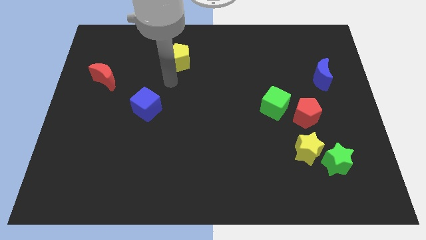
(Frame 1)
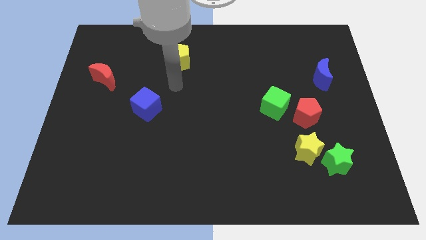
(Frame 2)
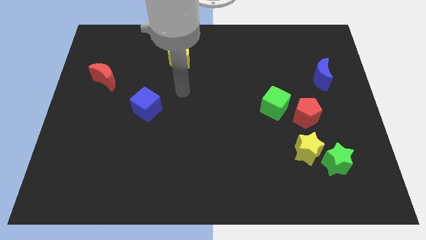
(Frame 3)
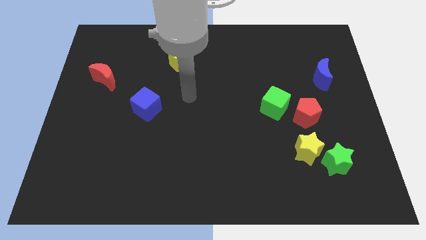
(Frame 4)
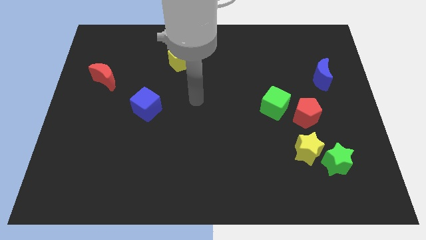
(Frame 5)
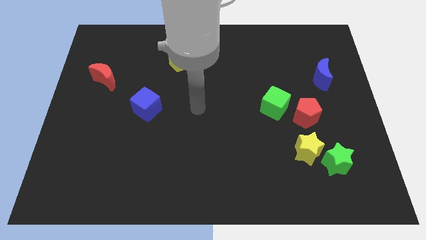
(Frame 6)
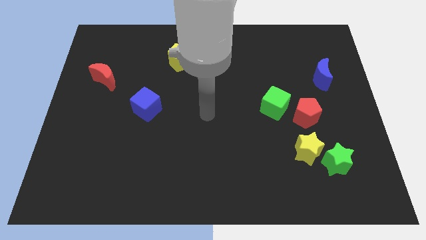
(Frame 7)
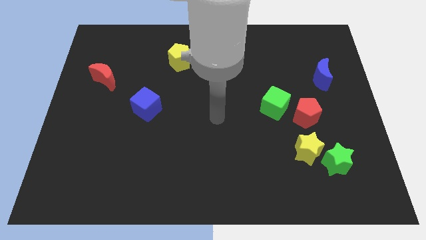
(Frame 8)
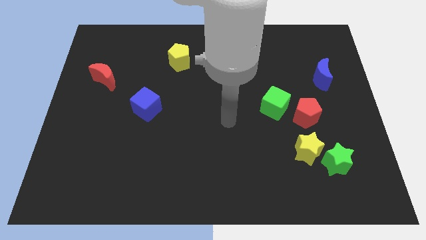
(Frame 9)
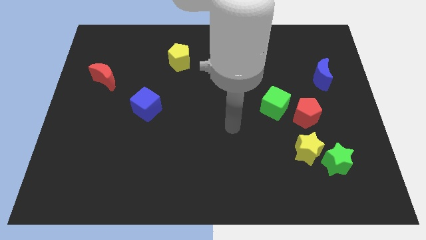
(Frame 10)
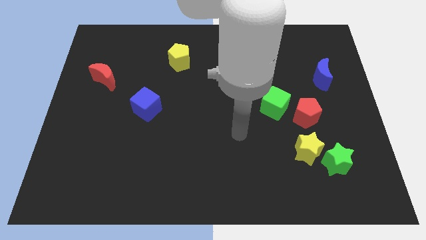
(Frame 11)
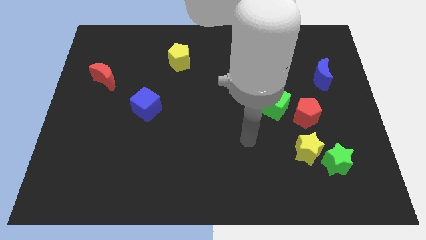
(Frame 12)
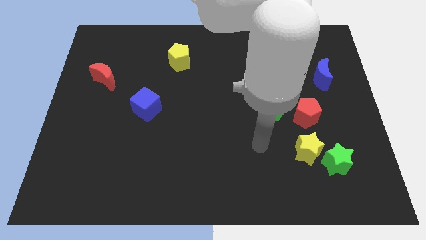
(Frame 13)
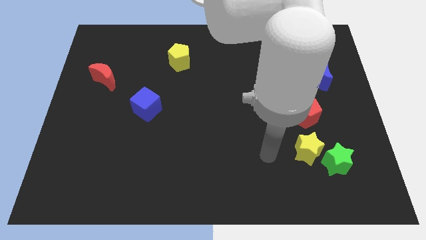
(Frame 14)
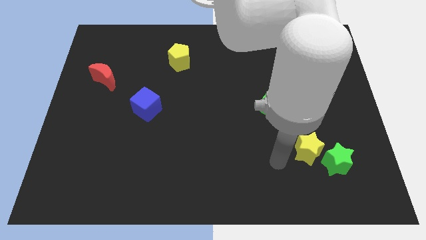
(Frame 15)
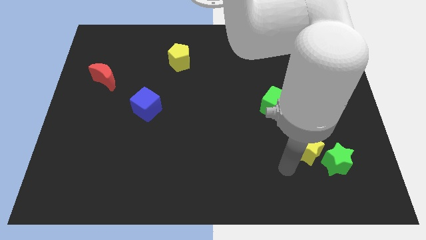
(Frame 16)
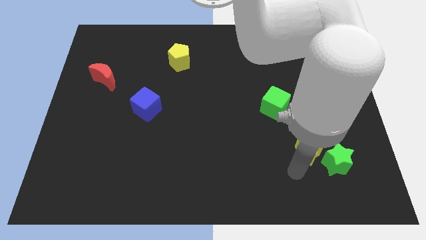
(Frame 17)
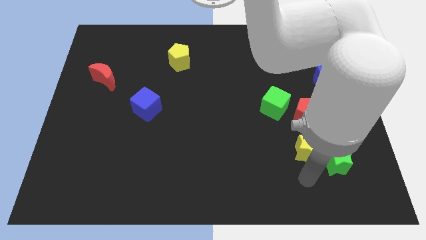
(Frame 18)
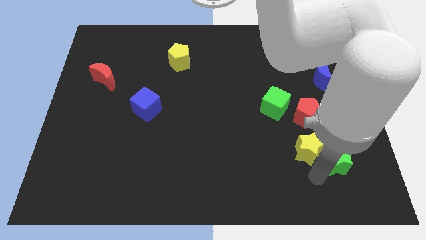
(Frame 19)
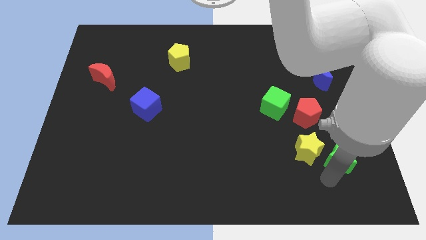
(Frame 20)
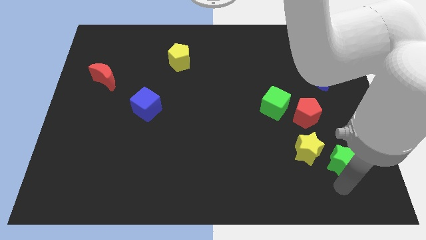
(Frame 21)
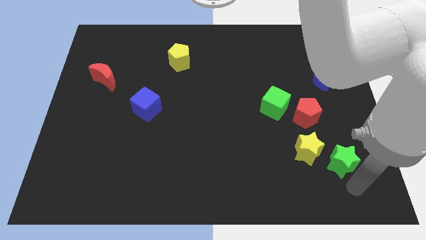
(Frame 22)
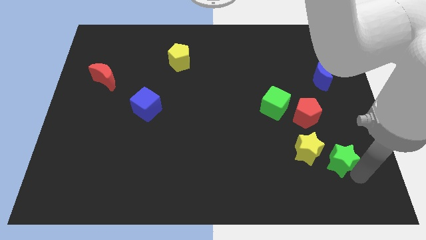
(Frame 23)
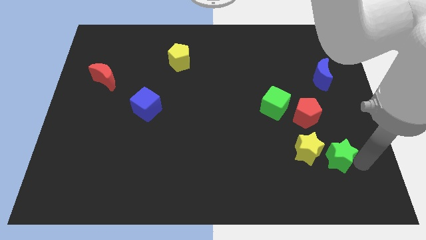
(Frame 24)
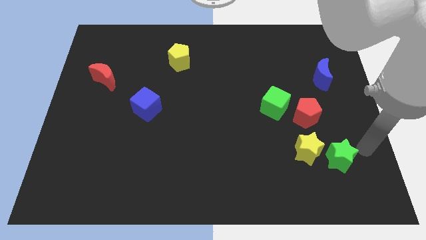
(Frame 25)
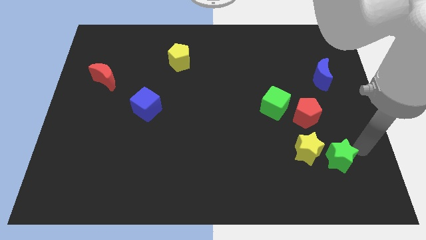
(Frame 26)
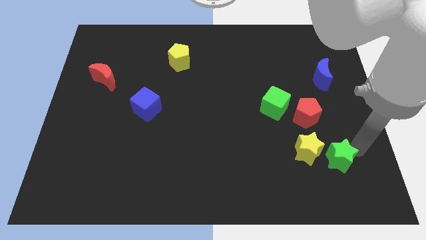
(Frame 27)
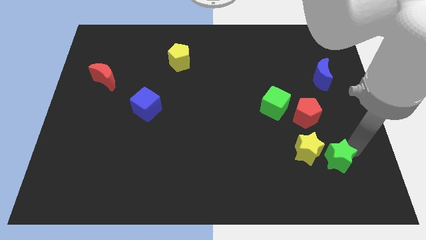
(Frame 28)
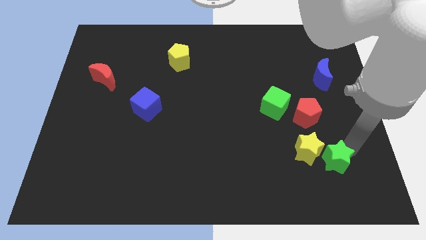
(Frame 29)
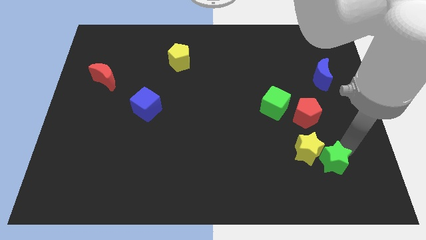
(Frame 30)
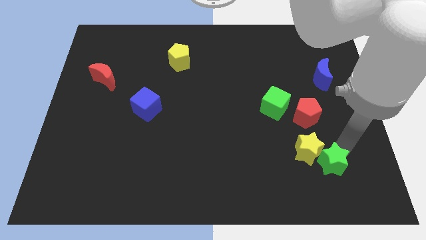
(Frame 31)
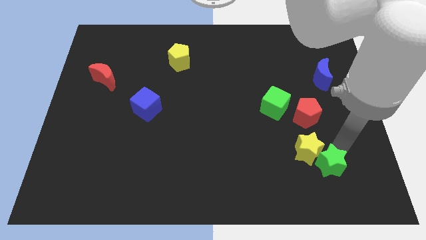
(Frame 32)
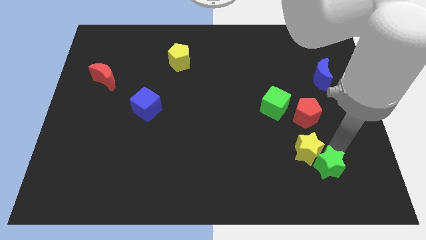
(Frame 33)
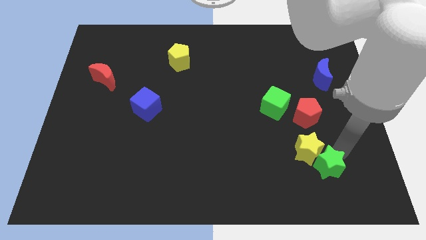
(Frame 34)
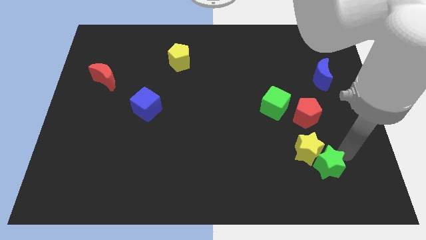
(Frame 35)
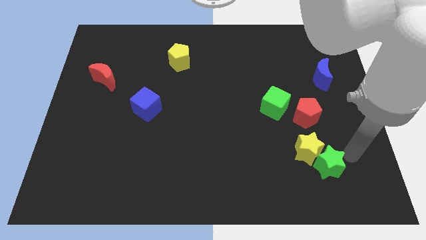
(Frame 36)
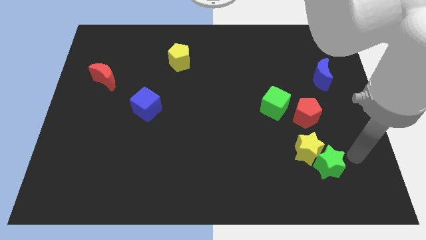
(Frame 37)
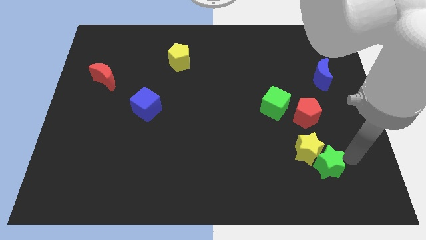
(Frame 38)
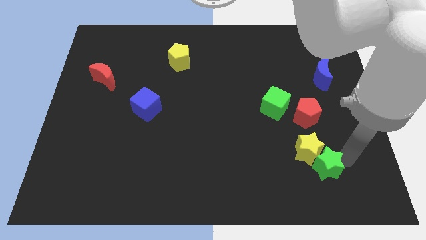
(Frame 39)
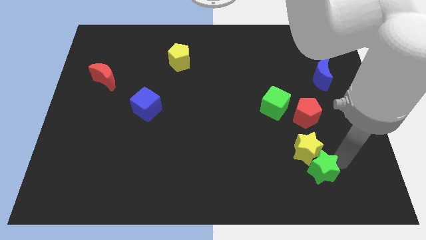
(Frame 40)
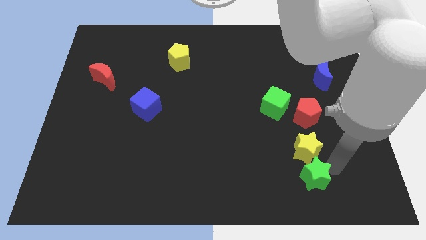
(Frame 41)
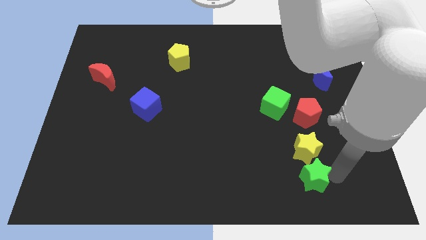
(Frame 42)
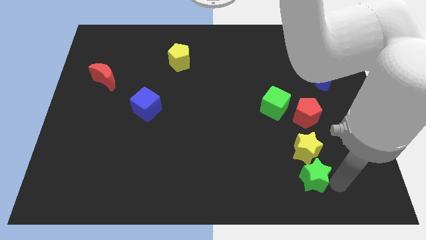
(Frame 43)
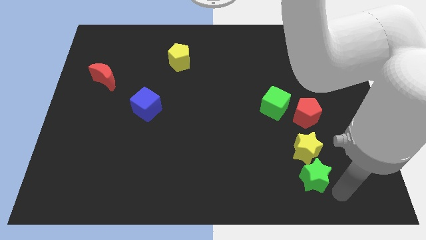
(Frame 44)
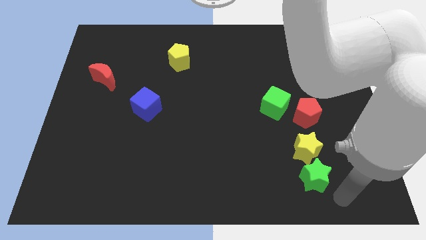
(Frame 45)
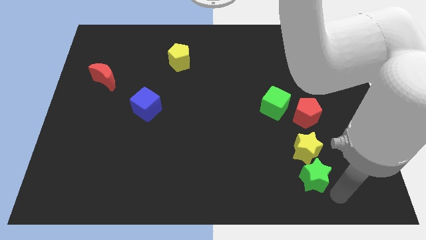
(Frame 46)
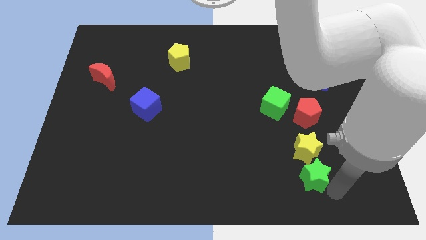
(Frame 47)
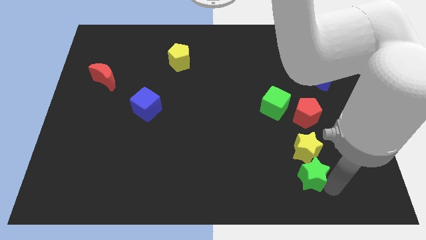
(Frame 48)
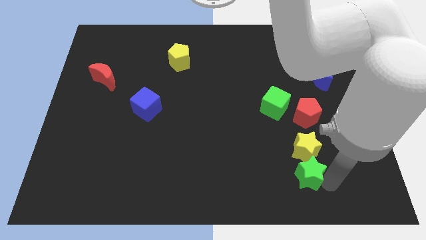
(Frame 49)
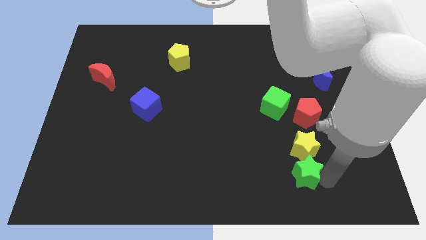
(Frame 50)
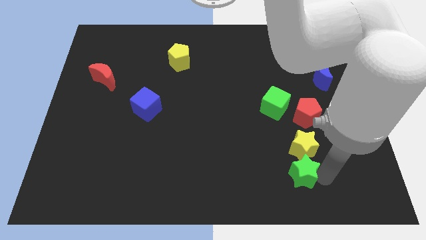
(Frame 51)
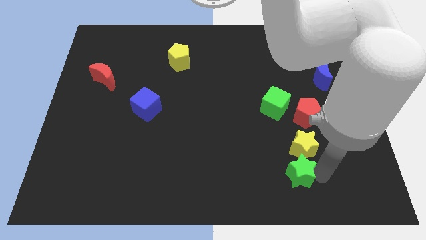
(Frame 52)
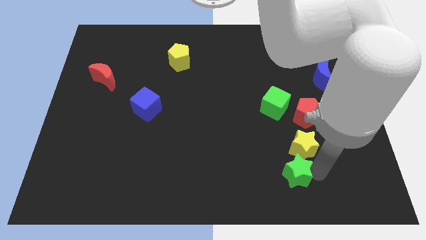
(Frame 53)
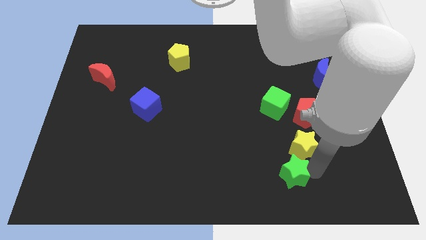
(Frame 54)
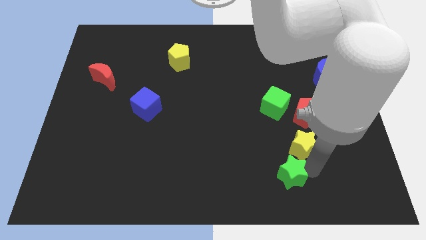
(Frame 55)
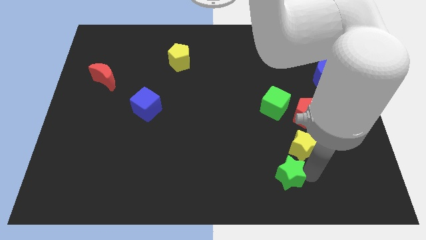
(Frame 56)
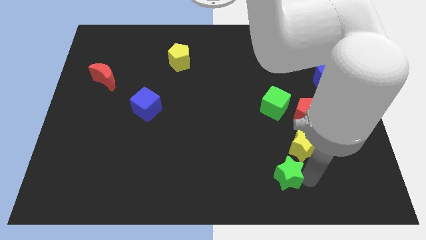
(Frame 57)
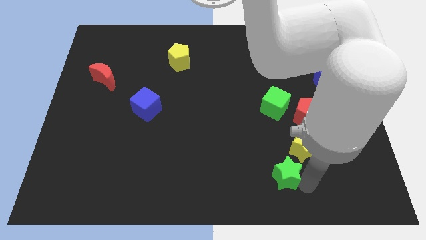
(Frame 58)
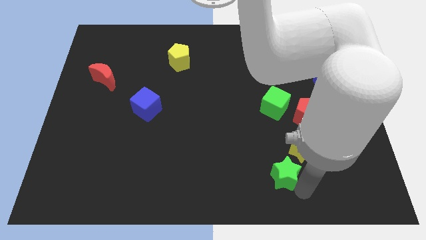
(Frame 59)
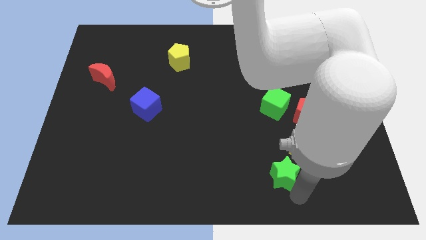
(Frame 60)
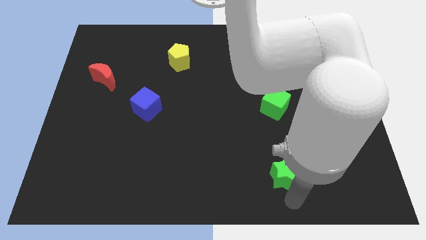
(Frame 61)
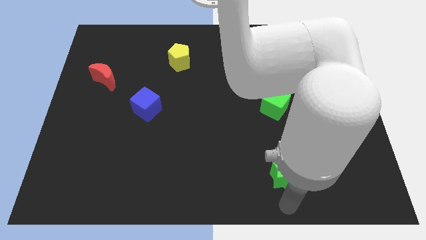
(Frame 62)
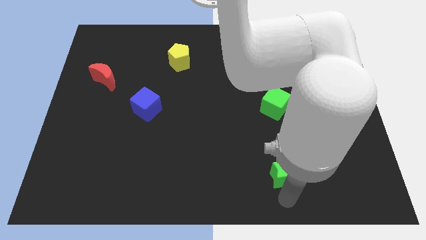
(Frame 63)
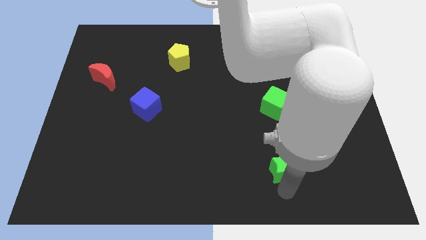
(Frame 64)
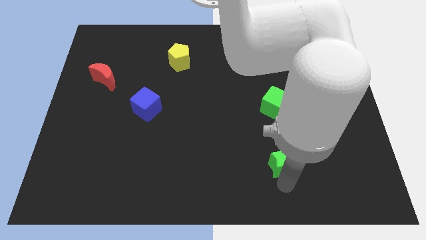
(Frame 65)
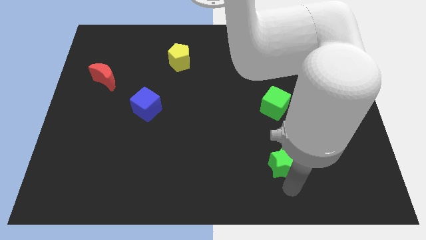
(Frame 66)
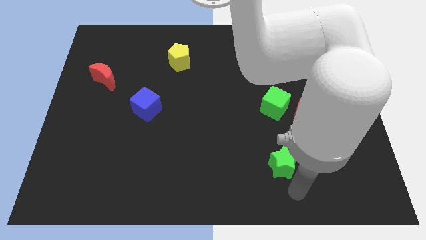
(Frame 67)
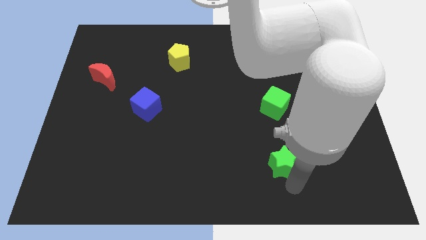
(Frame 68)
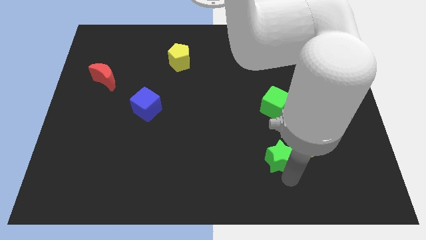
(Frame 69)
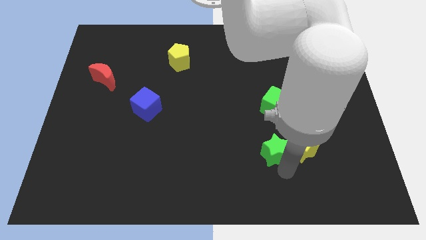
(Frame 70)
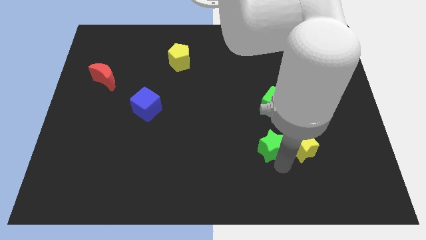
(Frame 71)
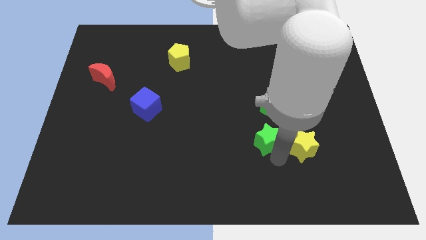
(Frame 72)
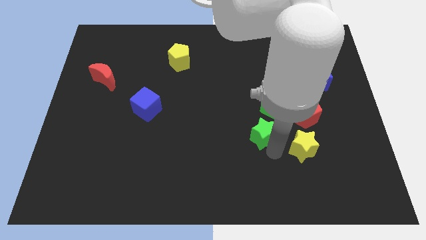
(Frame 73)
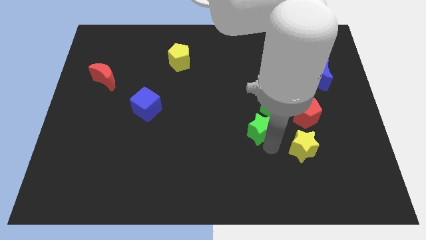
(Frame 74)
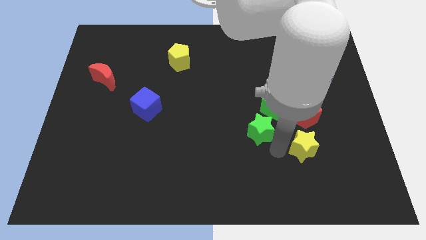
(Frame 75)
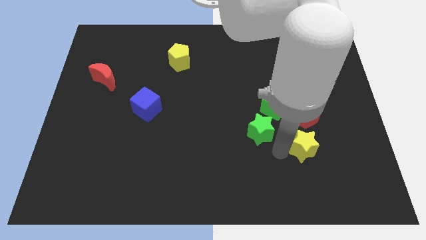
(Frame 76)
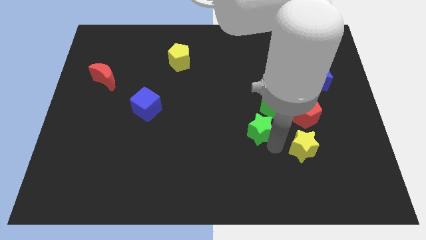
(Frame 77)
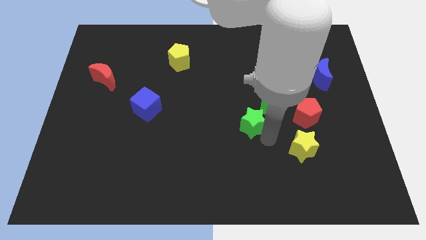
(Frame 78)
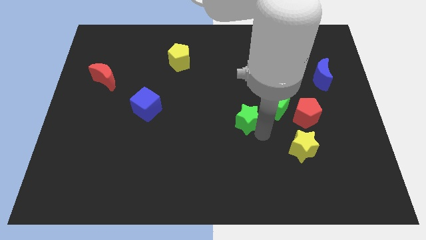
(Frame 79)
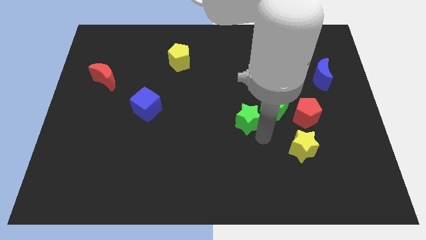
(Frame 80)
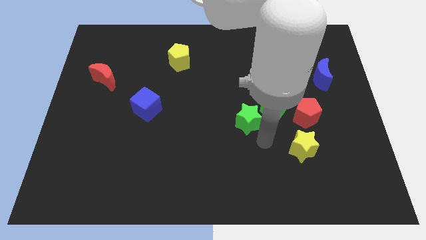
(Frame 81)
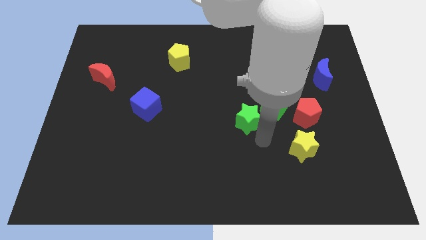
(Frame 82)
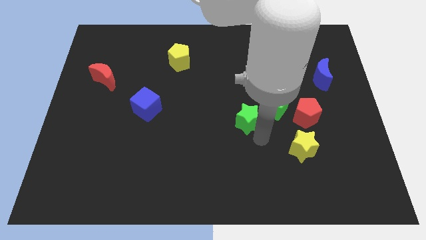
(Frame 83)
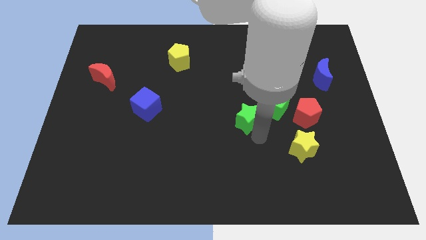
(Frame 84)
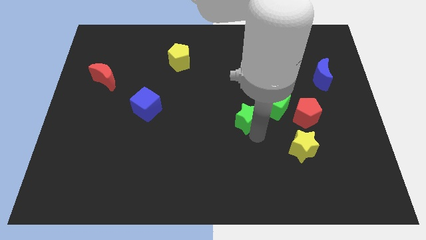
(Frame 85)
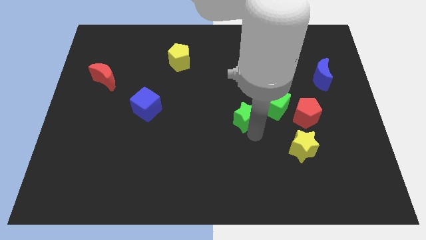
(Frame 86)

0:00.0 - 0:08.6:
move the green star upwards and to the left diagonally
